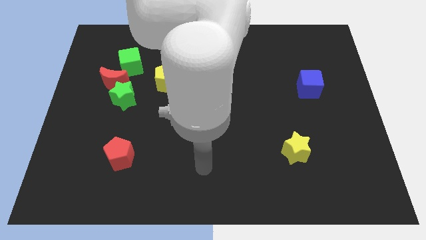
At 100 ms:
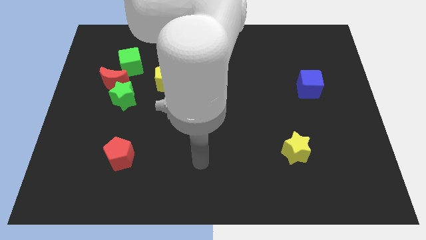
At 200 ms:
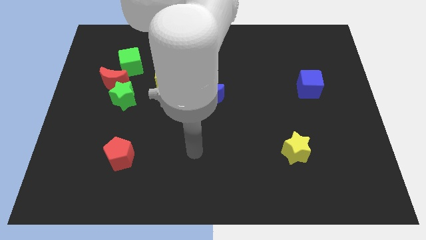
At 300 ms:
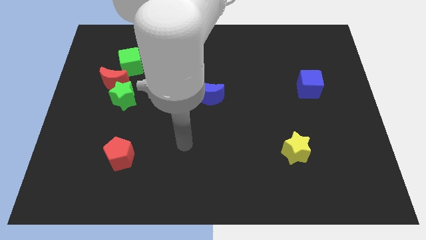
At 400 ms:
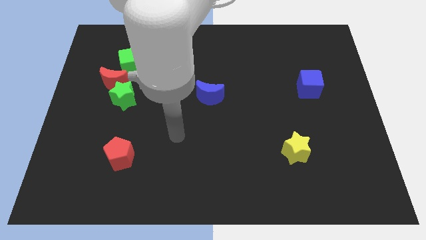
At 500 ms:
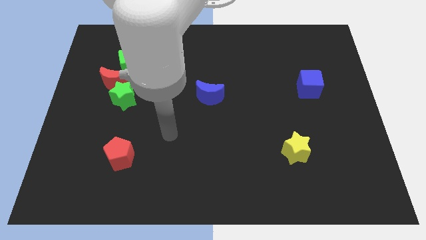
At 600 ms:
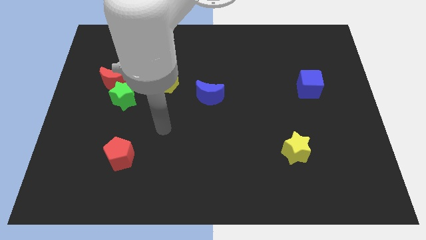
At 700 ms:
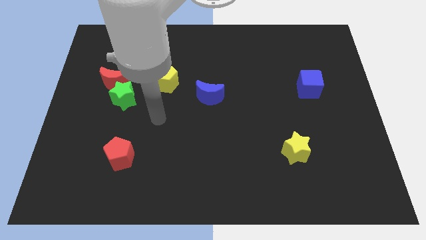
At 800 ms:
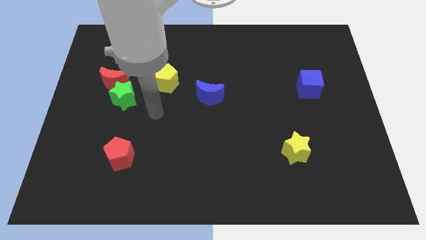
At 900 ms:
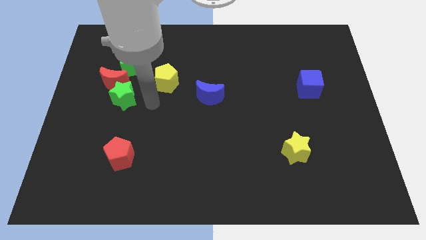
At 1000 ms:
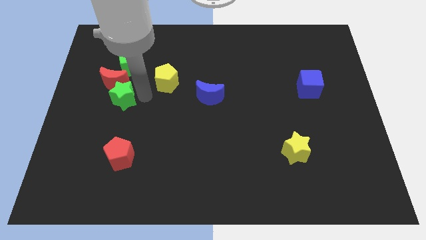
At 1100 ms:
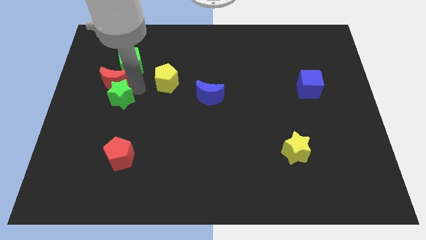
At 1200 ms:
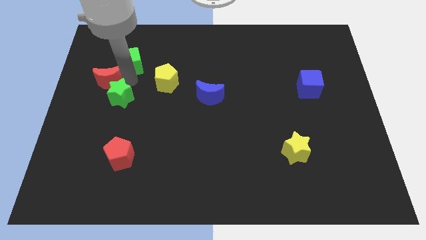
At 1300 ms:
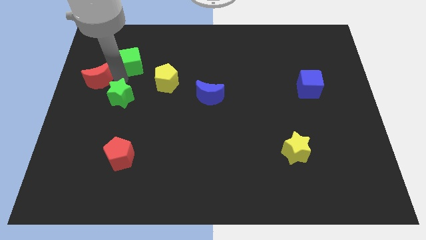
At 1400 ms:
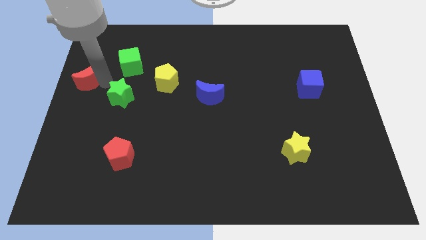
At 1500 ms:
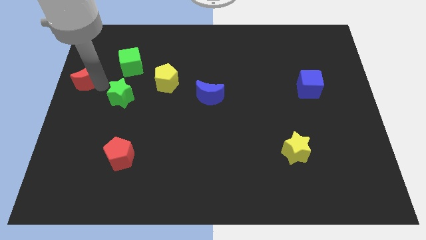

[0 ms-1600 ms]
separate the green star from the red moon

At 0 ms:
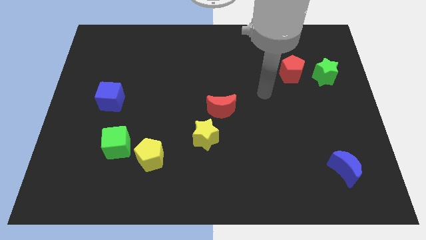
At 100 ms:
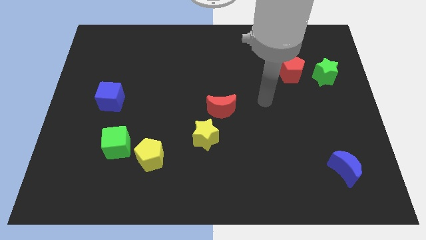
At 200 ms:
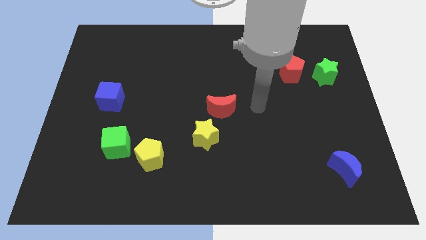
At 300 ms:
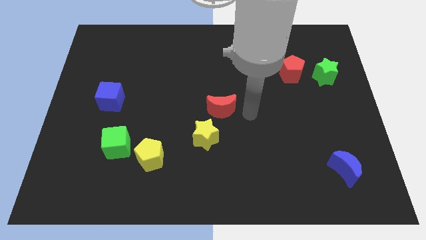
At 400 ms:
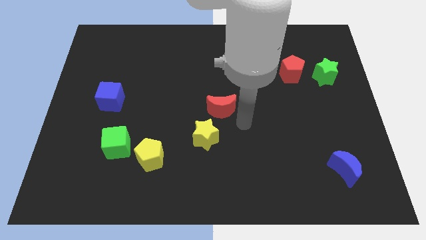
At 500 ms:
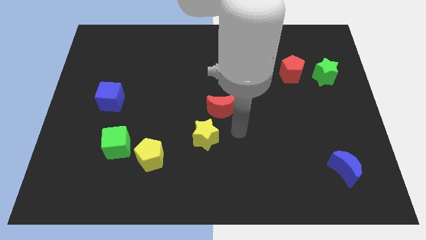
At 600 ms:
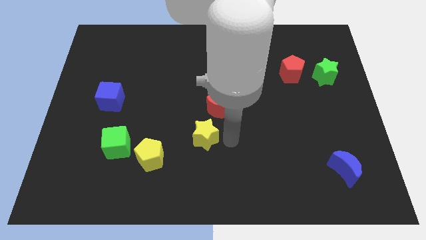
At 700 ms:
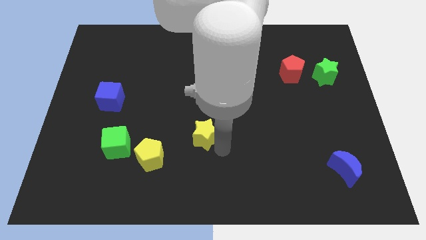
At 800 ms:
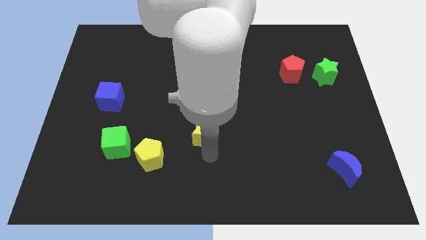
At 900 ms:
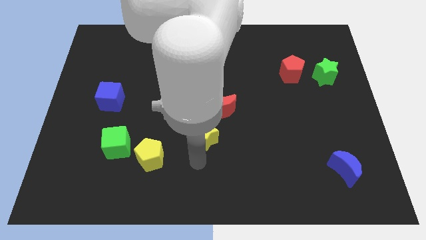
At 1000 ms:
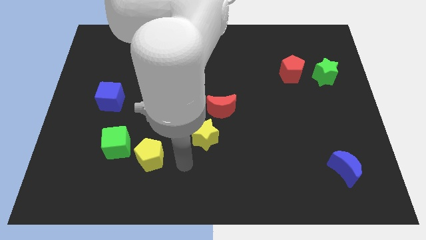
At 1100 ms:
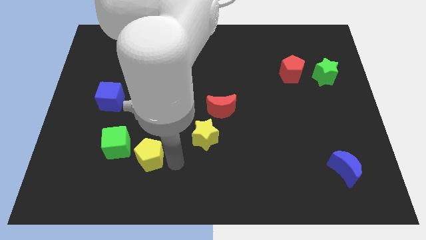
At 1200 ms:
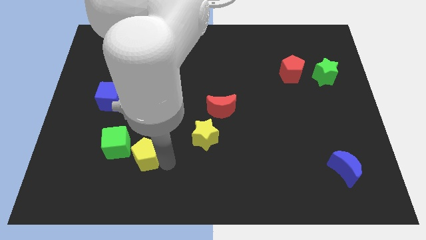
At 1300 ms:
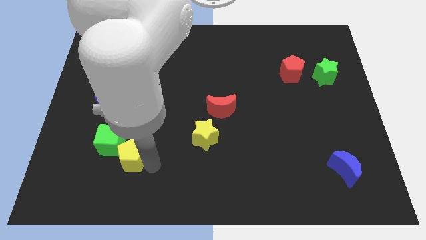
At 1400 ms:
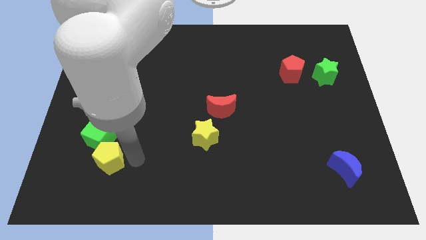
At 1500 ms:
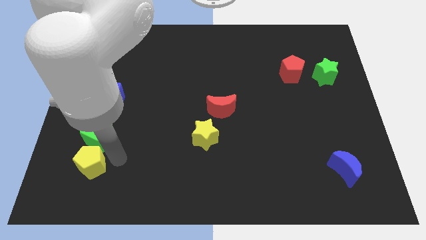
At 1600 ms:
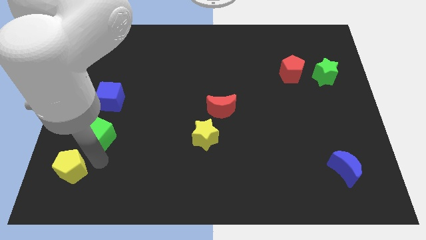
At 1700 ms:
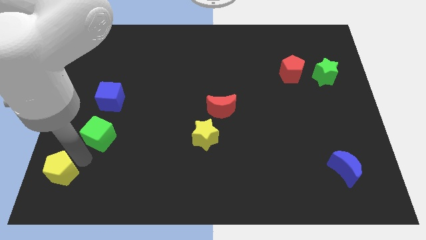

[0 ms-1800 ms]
pull the green cube apart from the yellow pentagon

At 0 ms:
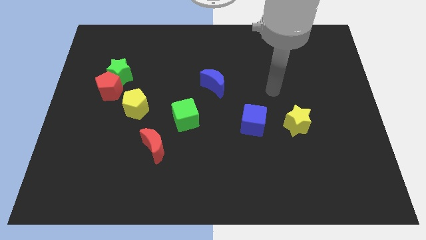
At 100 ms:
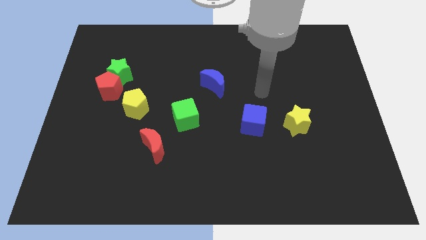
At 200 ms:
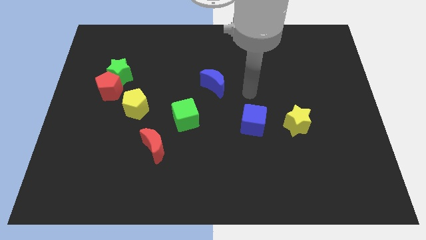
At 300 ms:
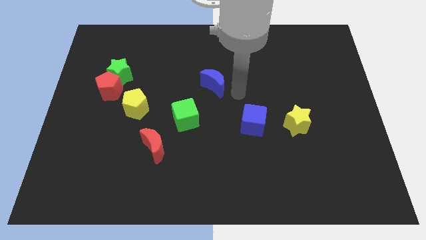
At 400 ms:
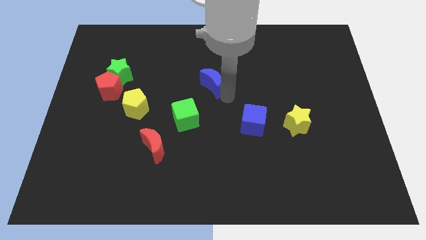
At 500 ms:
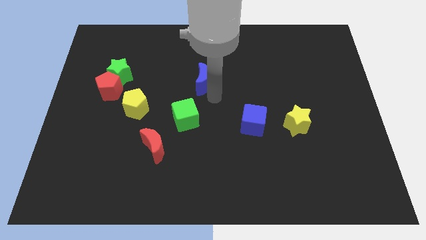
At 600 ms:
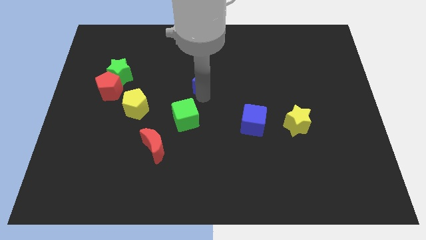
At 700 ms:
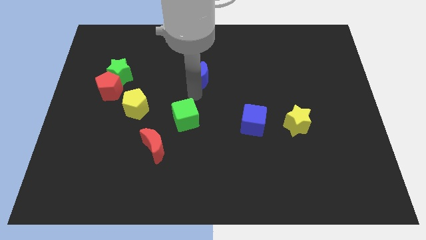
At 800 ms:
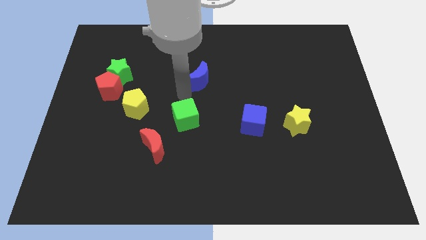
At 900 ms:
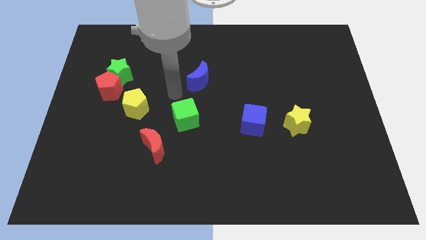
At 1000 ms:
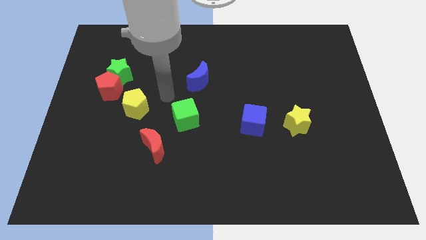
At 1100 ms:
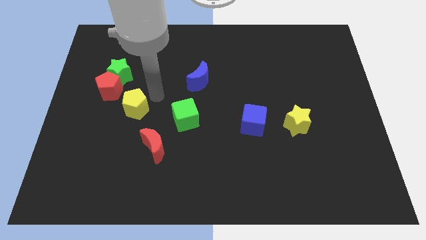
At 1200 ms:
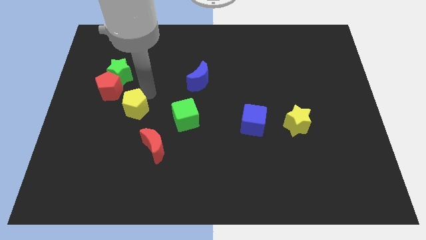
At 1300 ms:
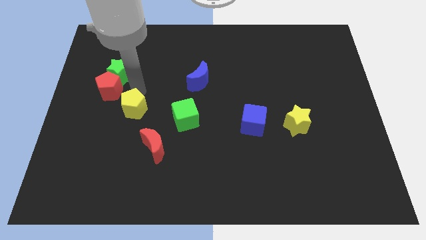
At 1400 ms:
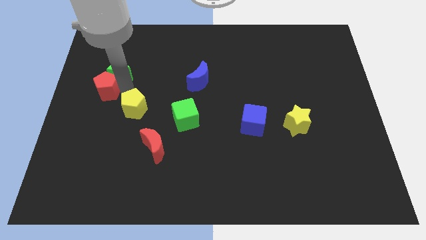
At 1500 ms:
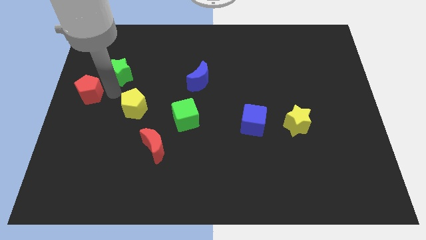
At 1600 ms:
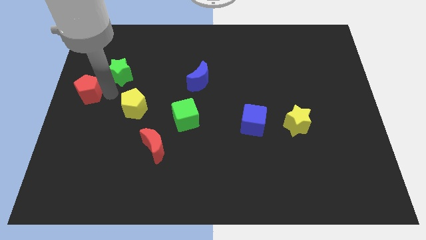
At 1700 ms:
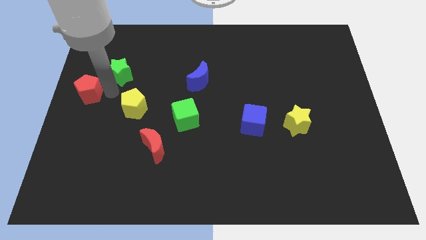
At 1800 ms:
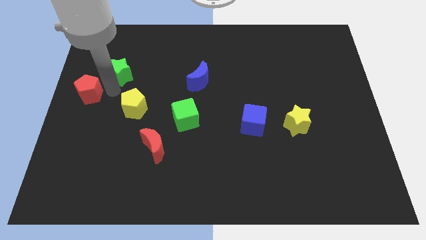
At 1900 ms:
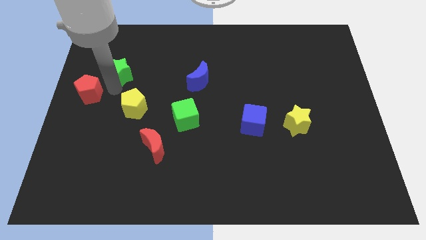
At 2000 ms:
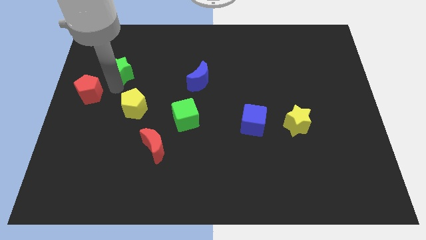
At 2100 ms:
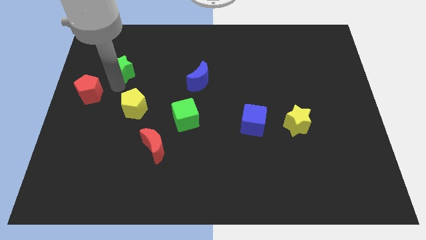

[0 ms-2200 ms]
separate the green star from the red pentagon

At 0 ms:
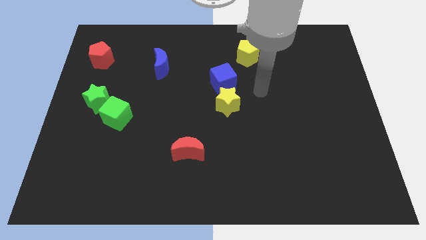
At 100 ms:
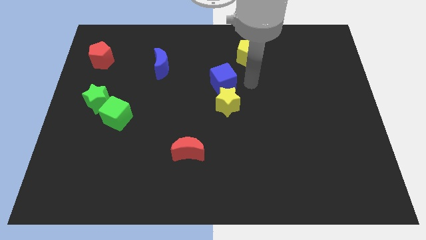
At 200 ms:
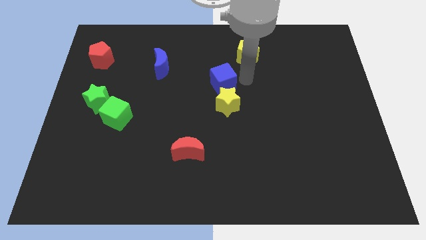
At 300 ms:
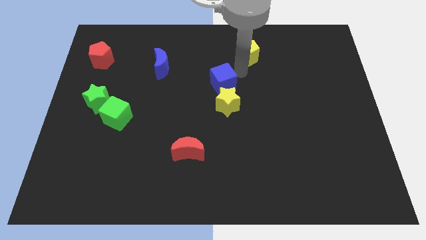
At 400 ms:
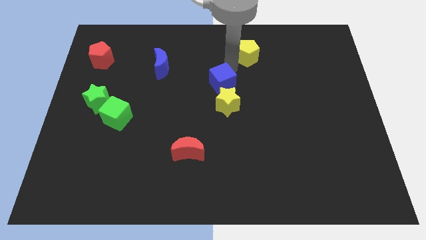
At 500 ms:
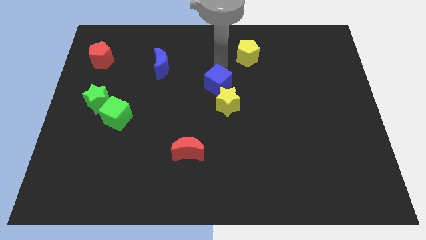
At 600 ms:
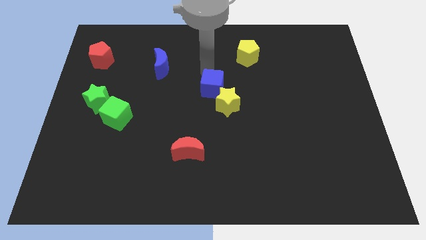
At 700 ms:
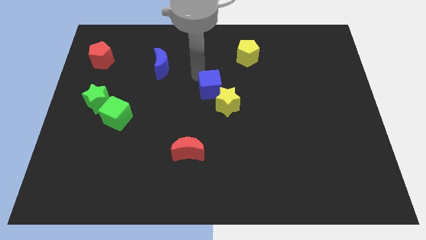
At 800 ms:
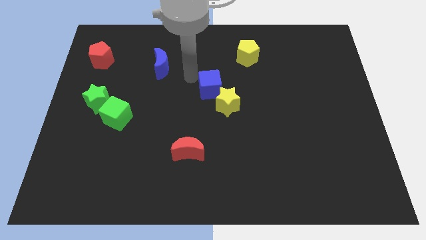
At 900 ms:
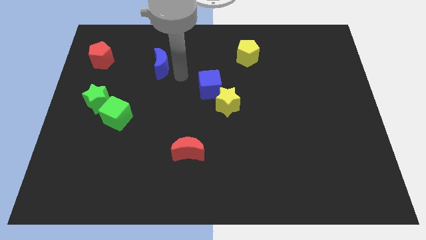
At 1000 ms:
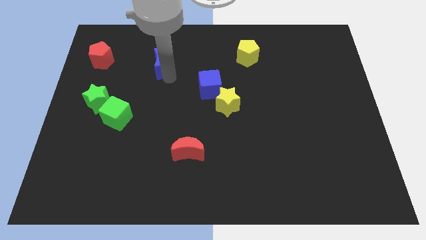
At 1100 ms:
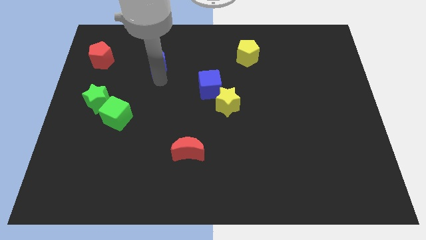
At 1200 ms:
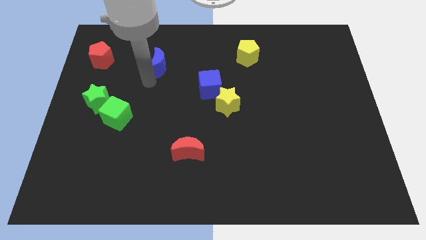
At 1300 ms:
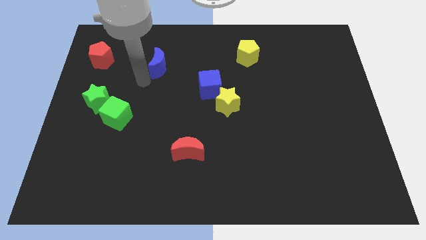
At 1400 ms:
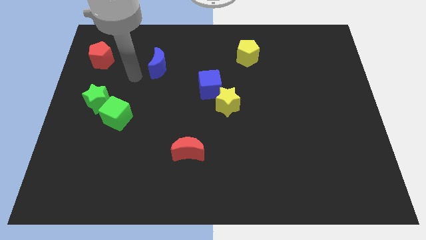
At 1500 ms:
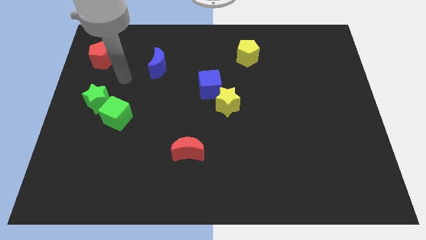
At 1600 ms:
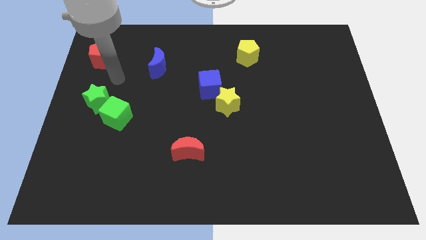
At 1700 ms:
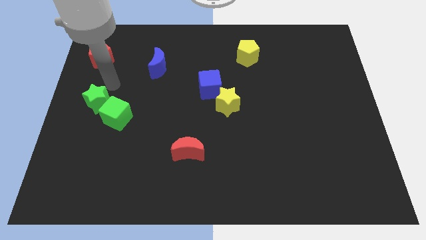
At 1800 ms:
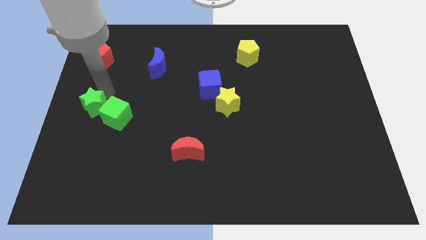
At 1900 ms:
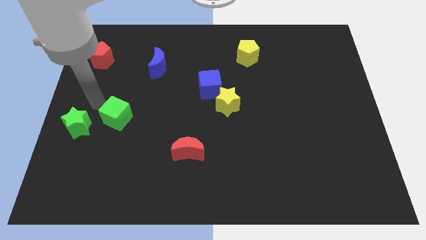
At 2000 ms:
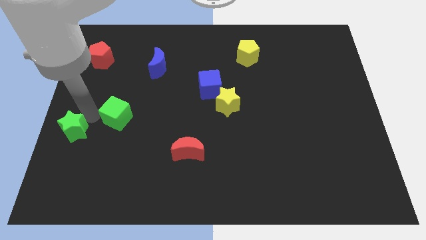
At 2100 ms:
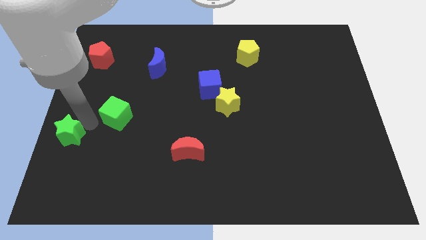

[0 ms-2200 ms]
move the green cube away from the green star

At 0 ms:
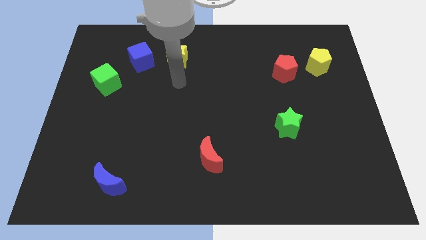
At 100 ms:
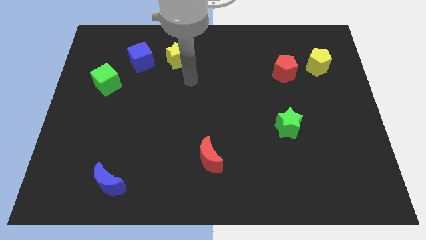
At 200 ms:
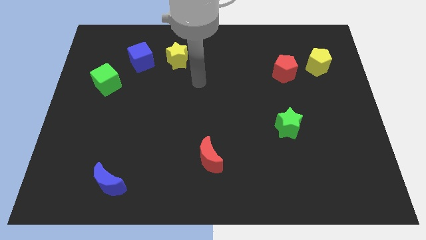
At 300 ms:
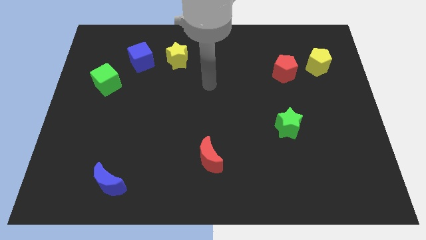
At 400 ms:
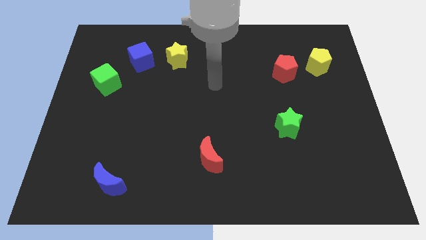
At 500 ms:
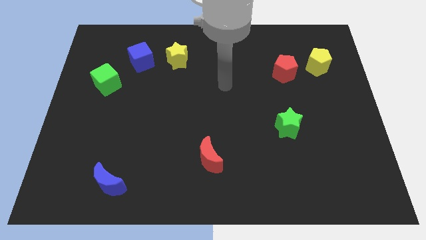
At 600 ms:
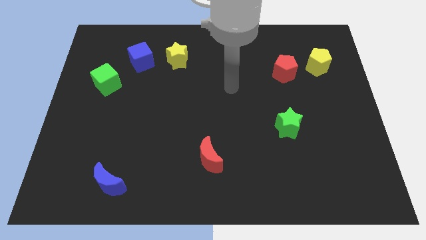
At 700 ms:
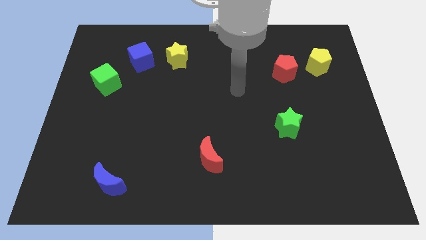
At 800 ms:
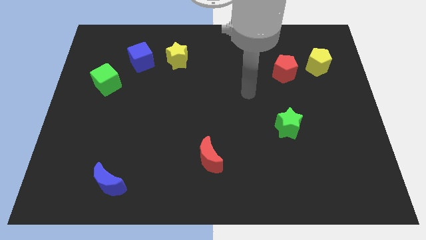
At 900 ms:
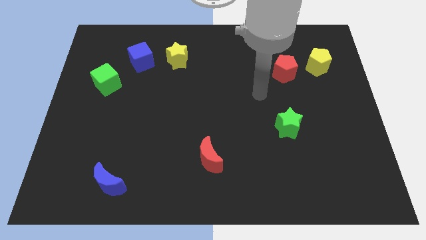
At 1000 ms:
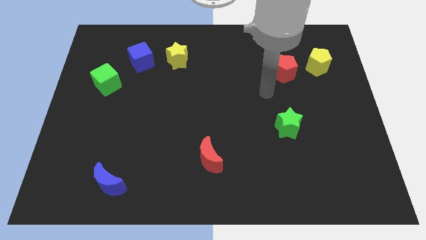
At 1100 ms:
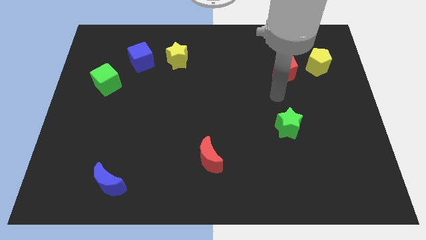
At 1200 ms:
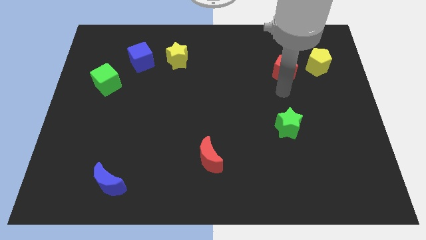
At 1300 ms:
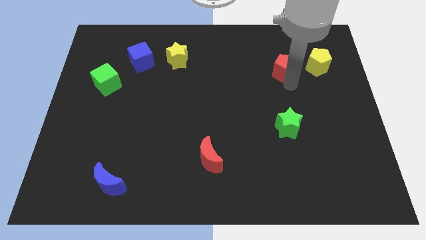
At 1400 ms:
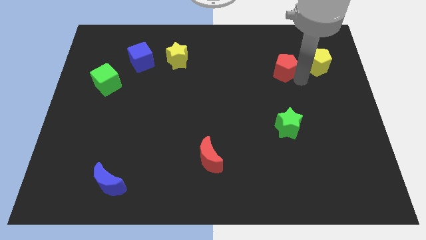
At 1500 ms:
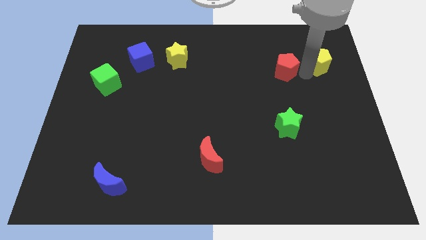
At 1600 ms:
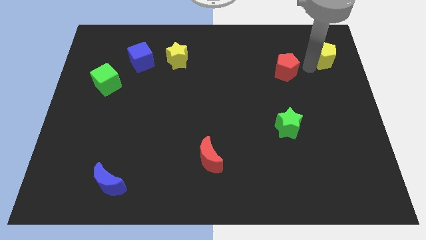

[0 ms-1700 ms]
separate the red pentagon from the yellow pentagon

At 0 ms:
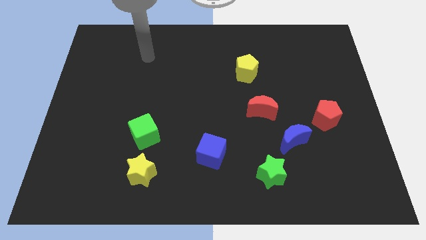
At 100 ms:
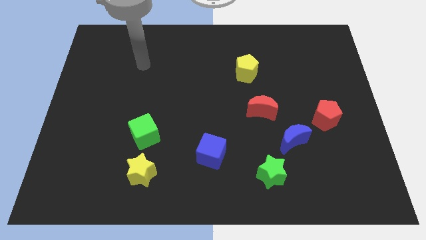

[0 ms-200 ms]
separate the green cube from the yellow star
